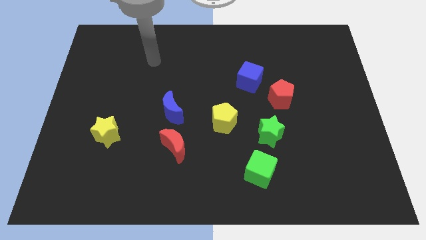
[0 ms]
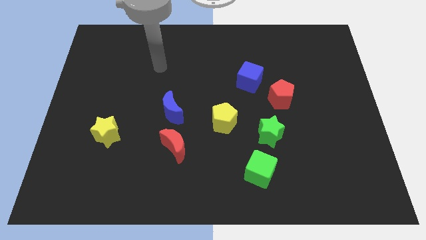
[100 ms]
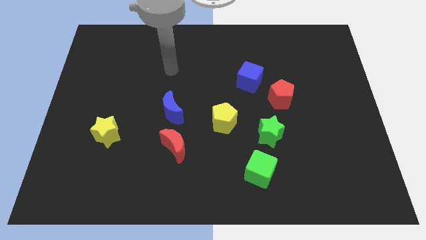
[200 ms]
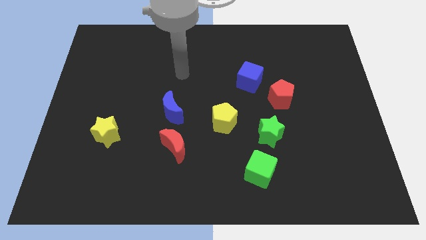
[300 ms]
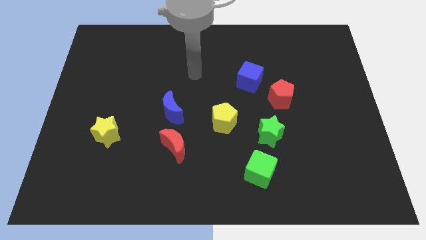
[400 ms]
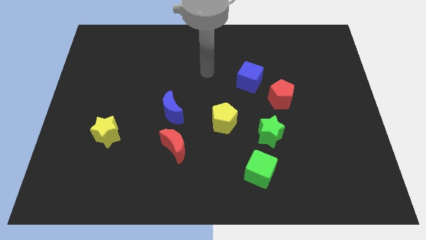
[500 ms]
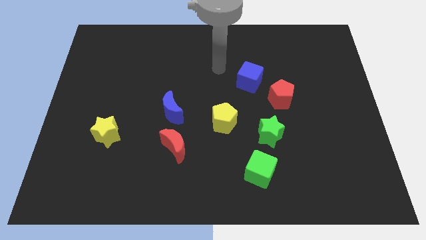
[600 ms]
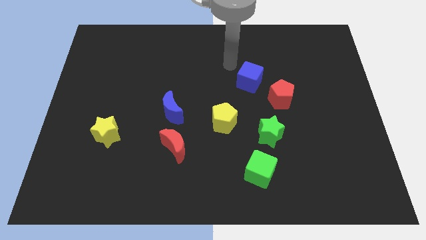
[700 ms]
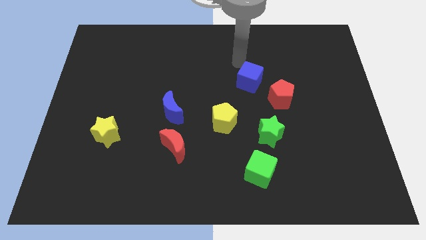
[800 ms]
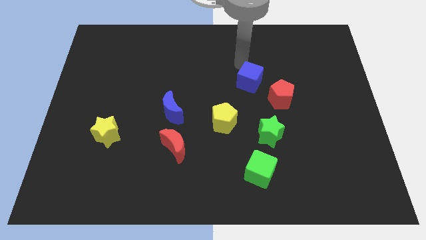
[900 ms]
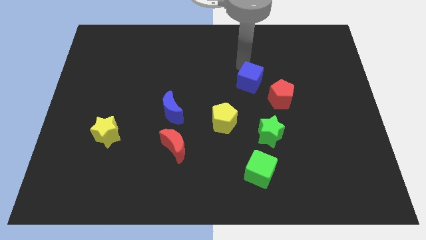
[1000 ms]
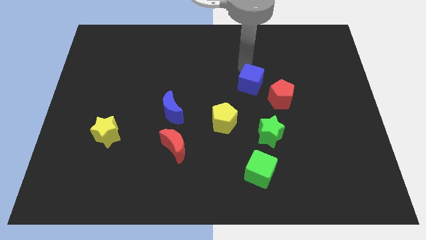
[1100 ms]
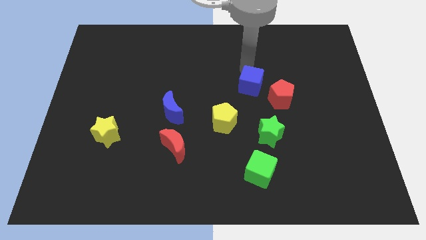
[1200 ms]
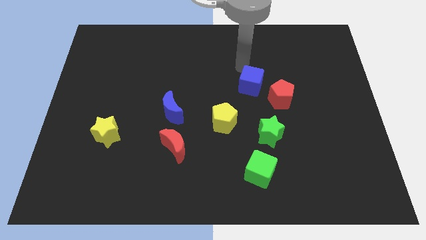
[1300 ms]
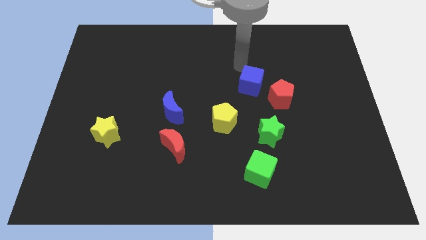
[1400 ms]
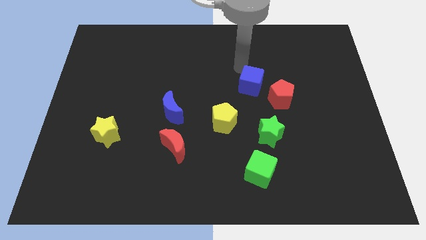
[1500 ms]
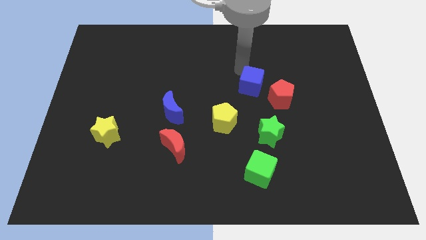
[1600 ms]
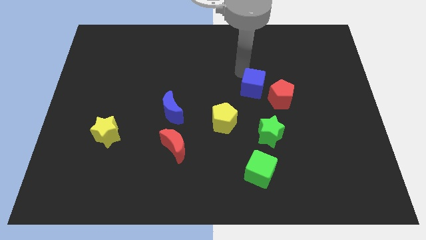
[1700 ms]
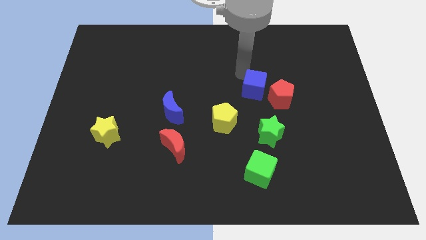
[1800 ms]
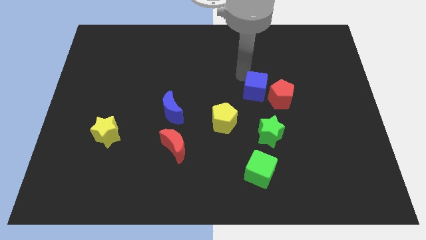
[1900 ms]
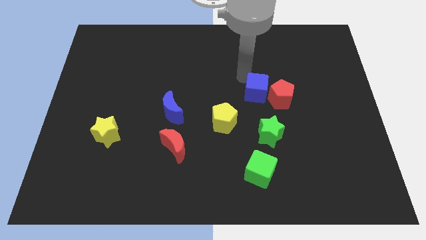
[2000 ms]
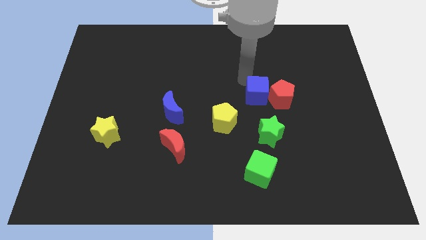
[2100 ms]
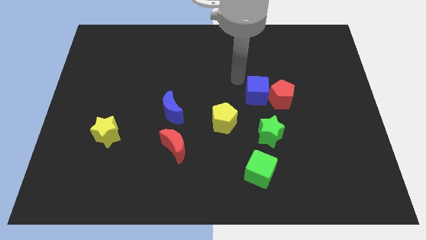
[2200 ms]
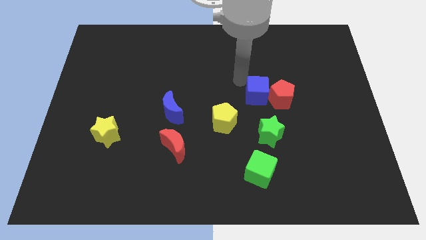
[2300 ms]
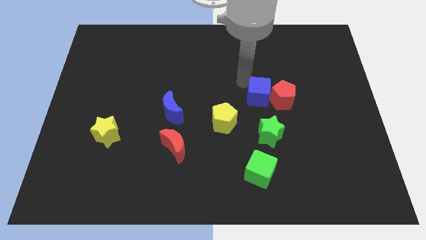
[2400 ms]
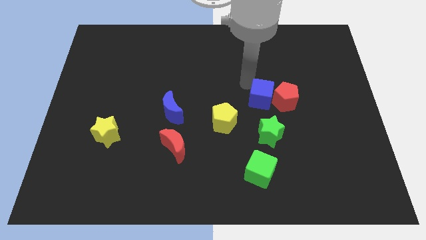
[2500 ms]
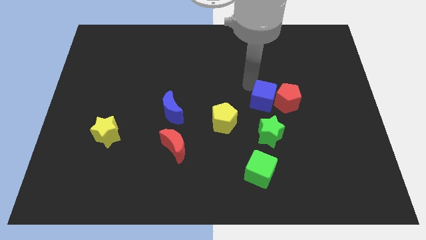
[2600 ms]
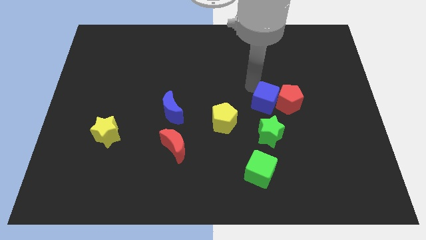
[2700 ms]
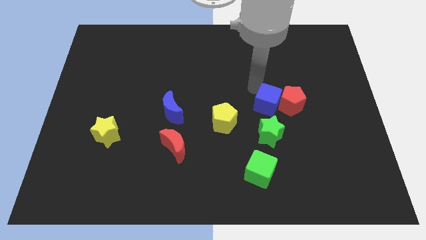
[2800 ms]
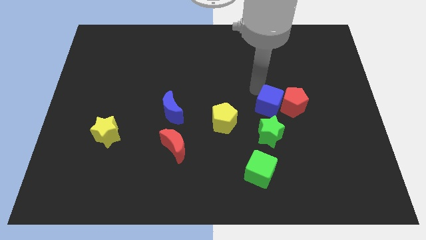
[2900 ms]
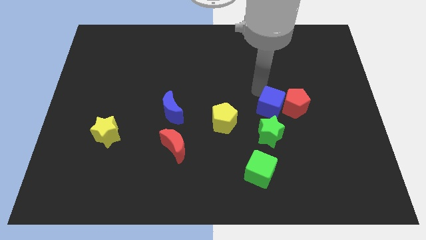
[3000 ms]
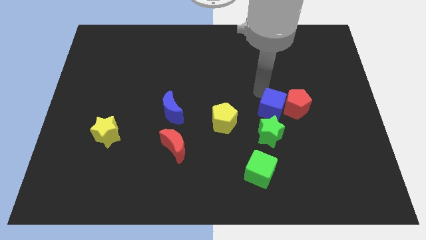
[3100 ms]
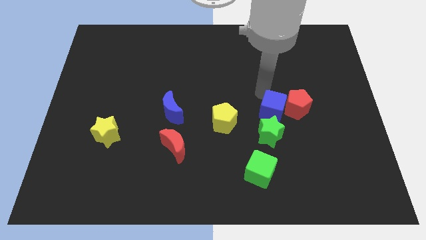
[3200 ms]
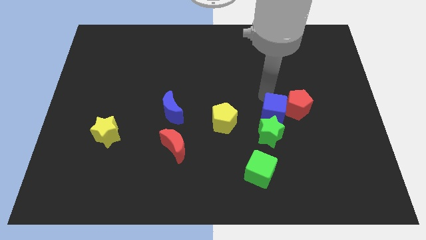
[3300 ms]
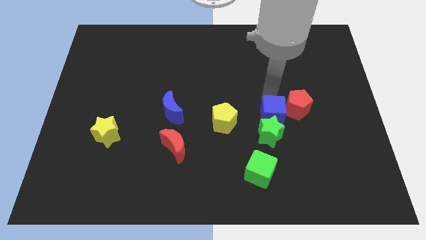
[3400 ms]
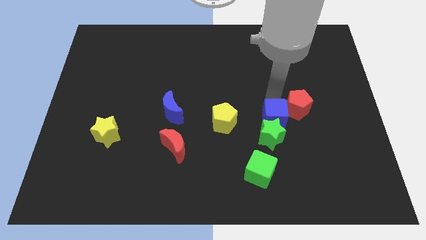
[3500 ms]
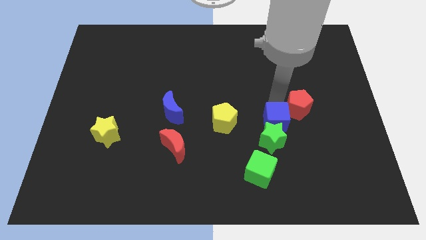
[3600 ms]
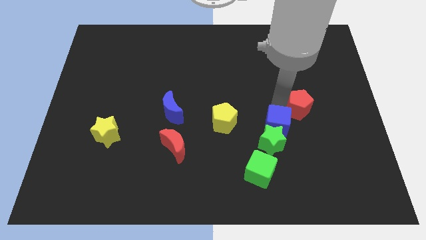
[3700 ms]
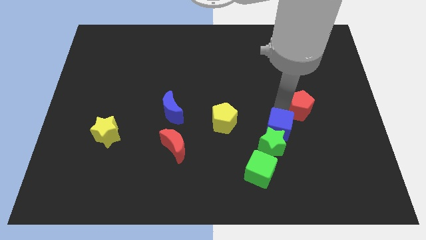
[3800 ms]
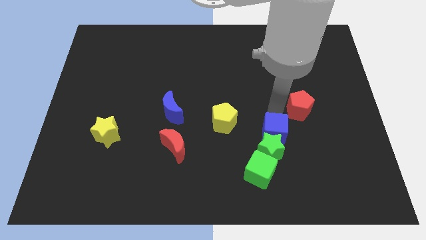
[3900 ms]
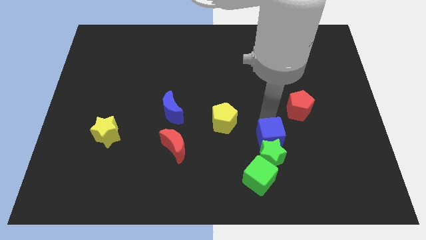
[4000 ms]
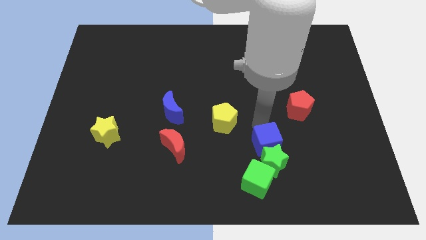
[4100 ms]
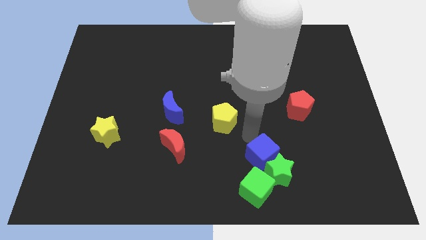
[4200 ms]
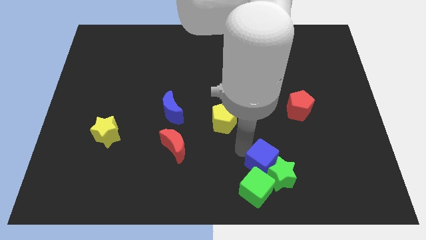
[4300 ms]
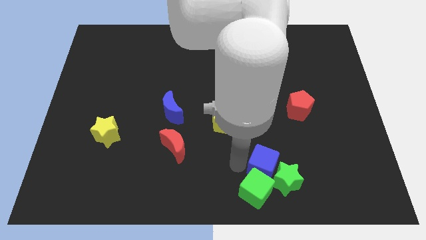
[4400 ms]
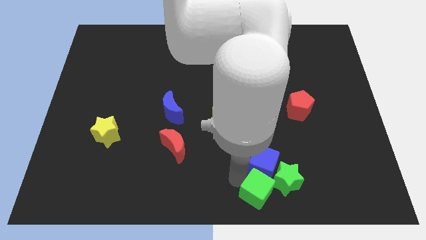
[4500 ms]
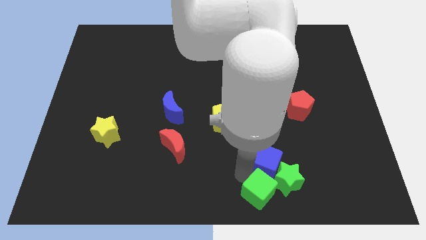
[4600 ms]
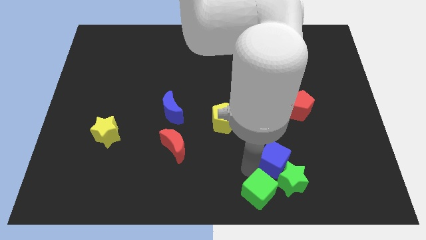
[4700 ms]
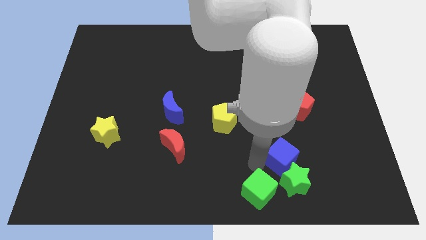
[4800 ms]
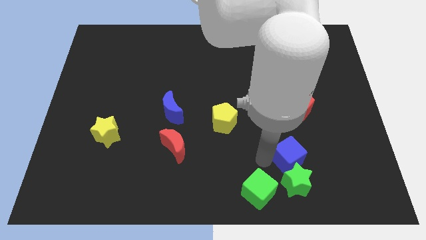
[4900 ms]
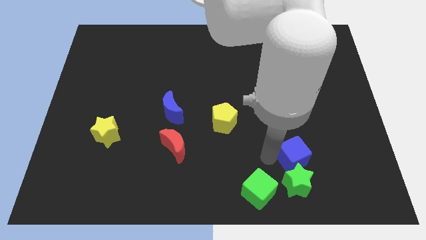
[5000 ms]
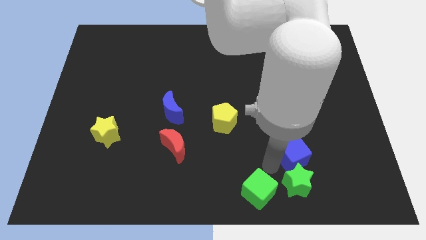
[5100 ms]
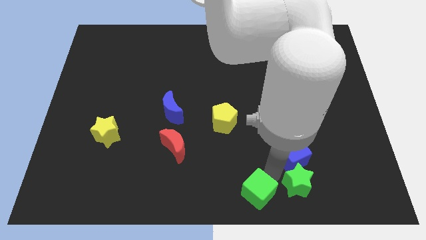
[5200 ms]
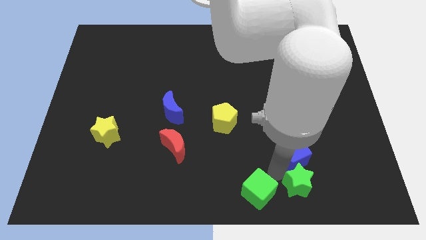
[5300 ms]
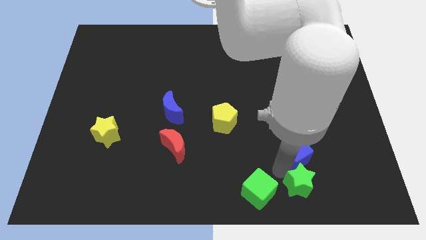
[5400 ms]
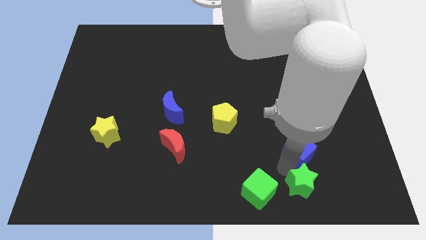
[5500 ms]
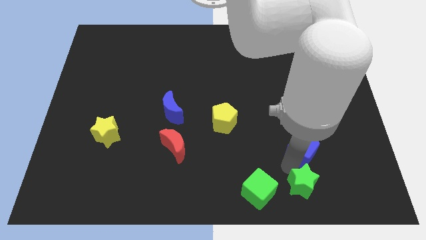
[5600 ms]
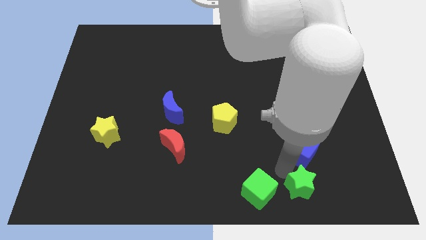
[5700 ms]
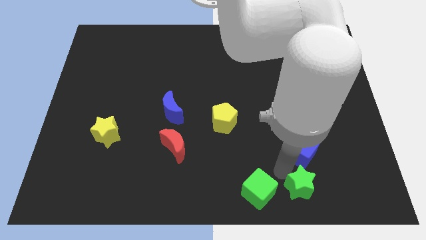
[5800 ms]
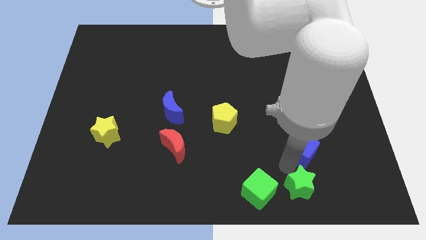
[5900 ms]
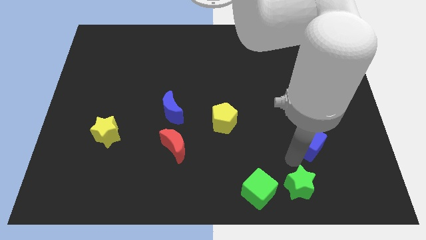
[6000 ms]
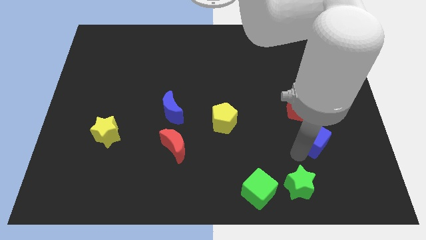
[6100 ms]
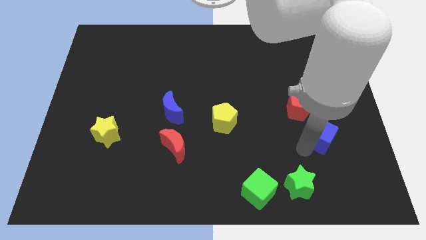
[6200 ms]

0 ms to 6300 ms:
push the blue cube to the bottom right side of the red pentagon
